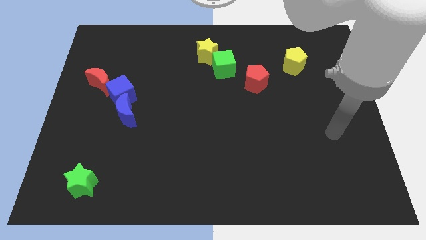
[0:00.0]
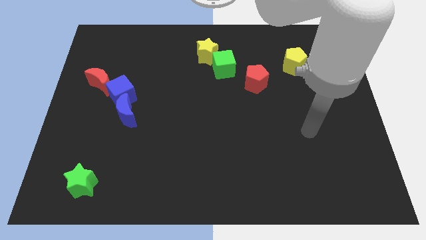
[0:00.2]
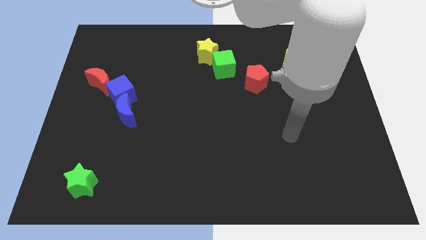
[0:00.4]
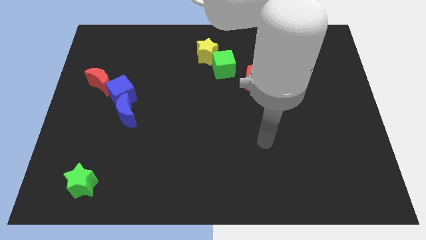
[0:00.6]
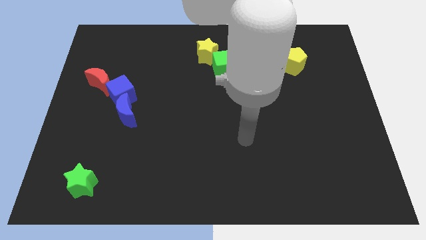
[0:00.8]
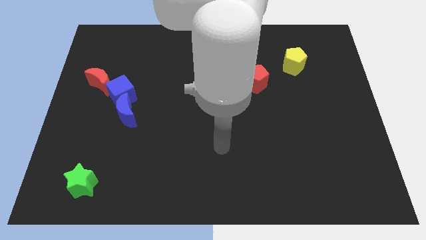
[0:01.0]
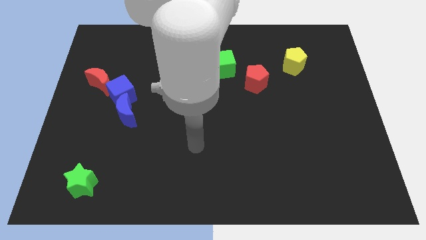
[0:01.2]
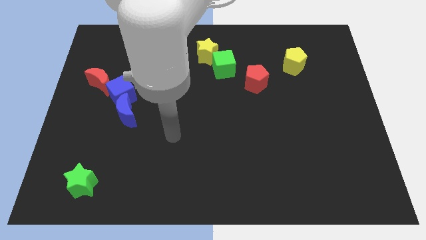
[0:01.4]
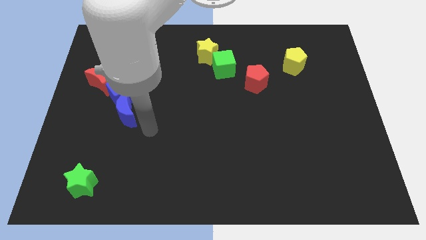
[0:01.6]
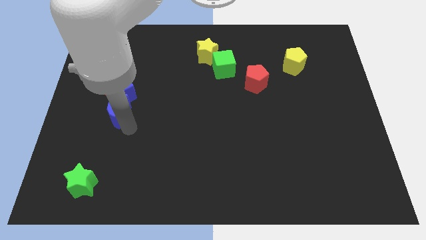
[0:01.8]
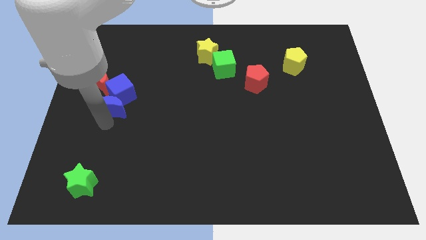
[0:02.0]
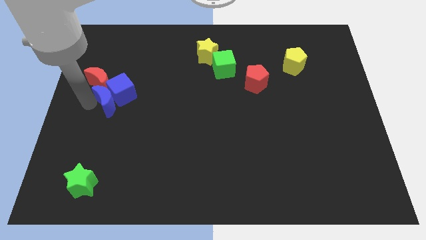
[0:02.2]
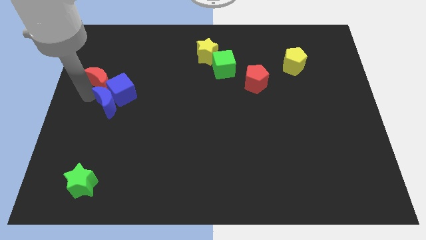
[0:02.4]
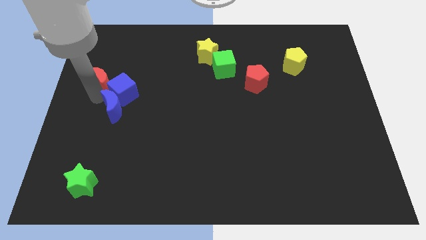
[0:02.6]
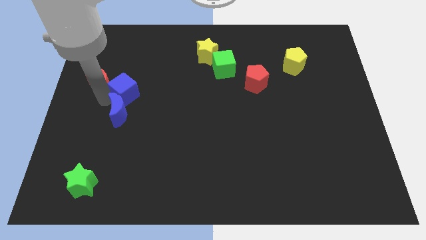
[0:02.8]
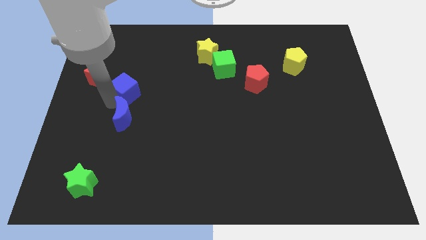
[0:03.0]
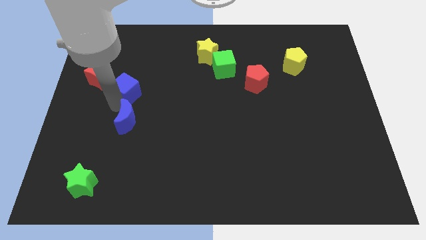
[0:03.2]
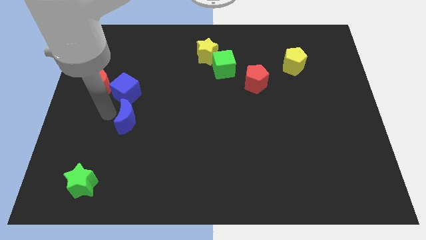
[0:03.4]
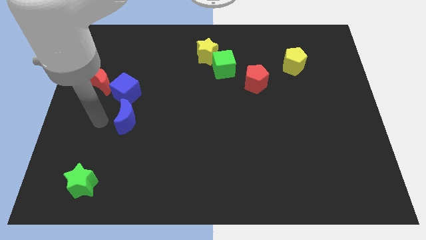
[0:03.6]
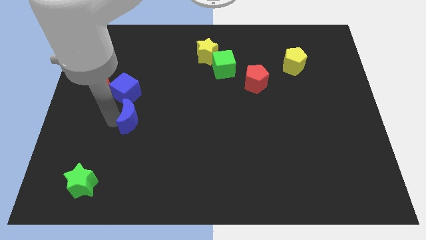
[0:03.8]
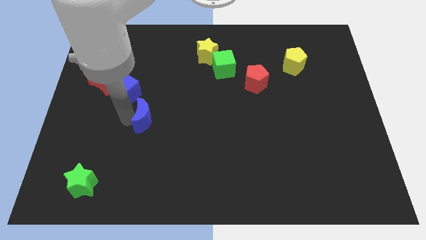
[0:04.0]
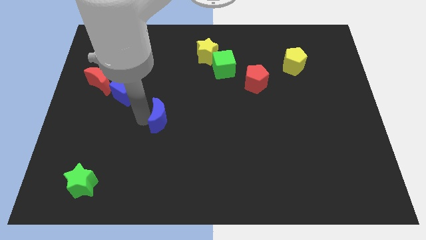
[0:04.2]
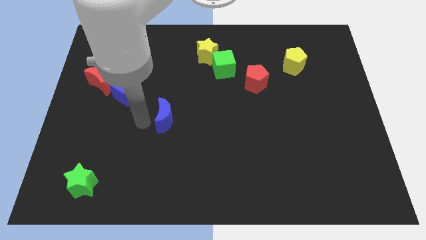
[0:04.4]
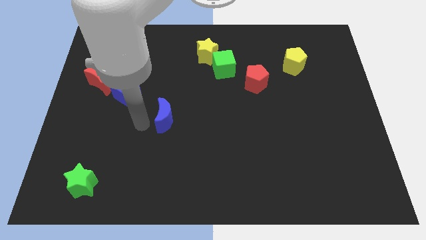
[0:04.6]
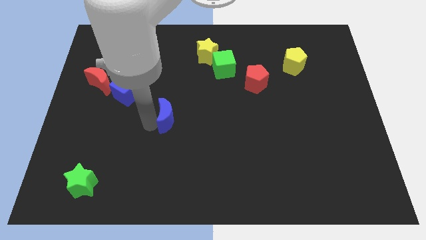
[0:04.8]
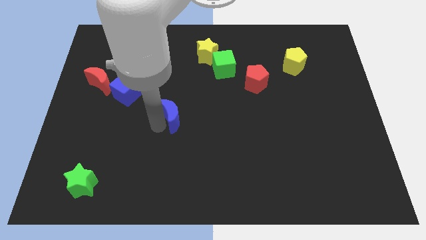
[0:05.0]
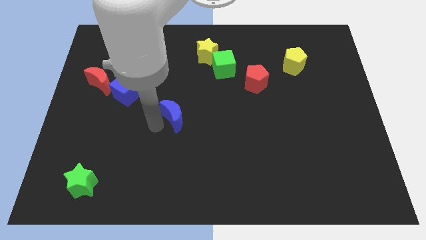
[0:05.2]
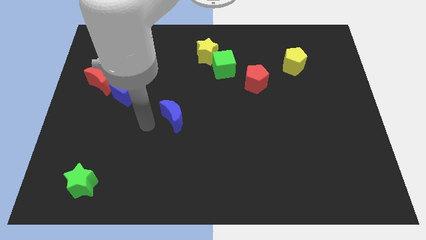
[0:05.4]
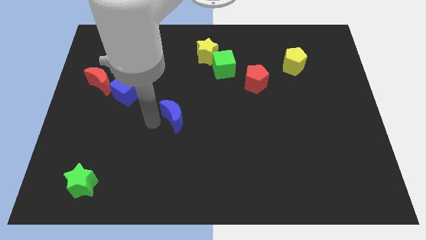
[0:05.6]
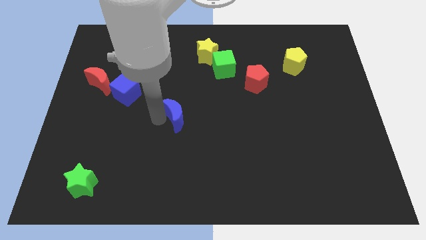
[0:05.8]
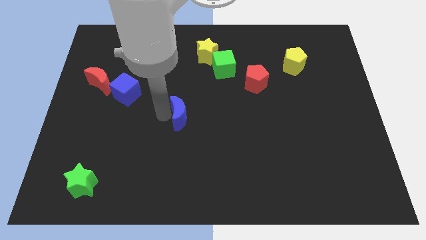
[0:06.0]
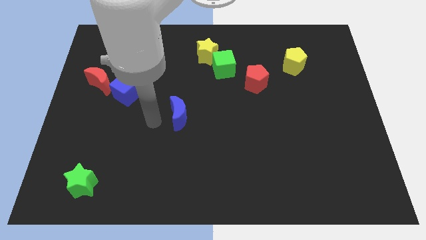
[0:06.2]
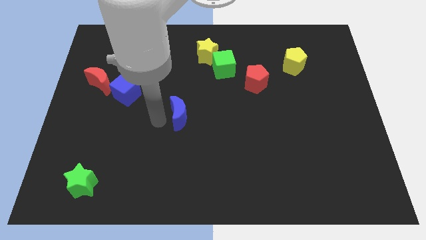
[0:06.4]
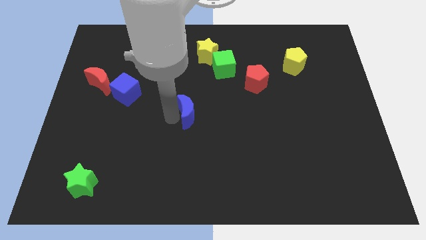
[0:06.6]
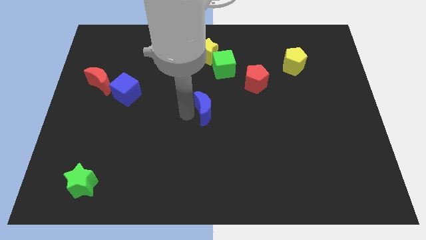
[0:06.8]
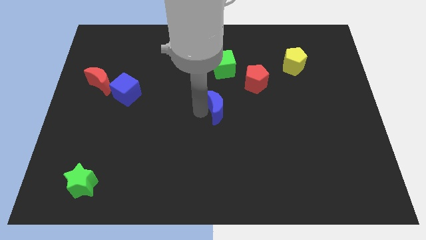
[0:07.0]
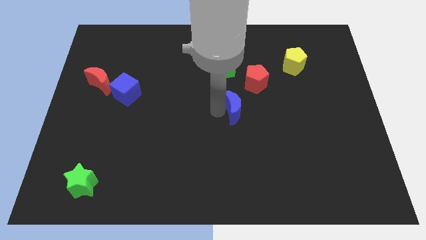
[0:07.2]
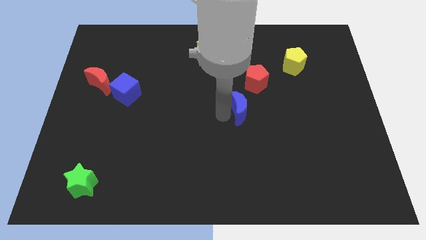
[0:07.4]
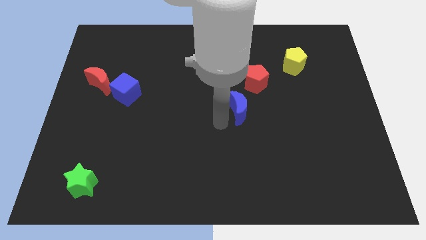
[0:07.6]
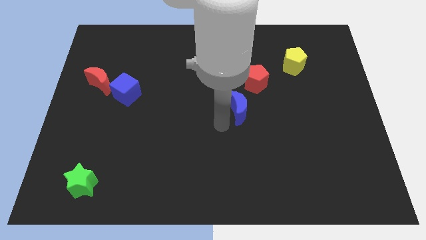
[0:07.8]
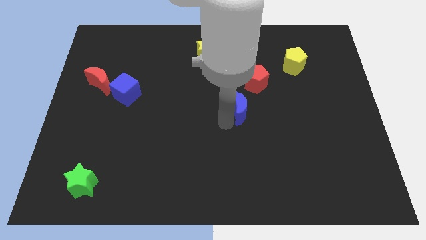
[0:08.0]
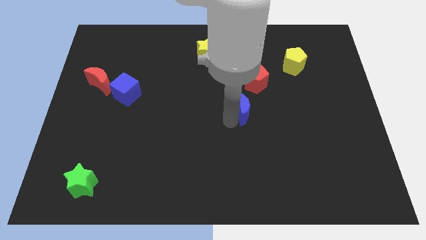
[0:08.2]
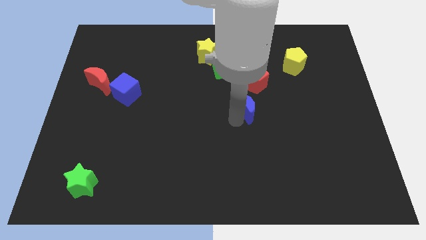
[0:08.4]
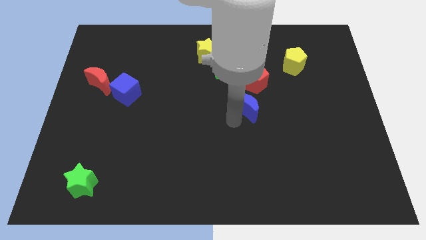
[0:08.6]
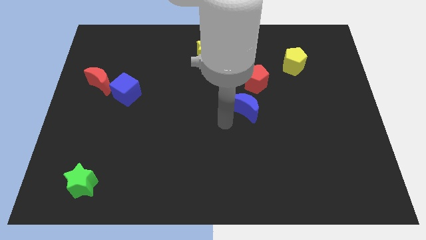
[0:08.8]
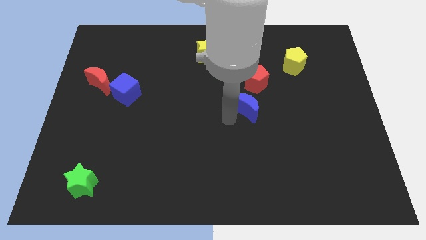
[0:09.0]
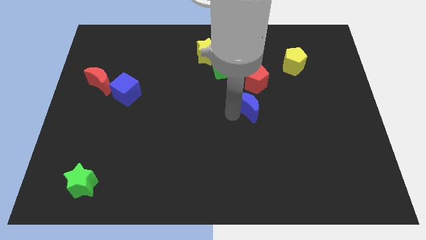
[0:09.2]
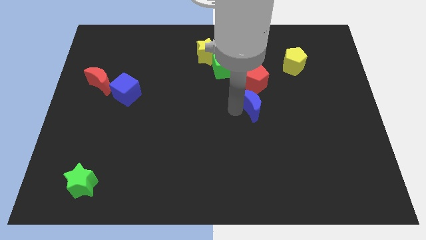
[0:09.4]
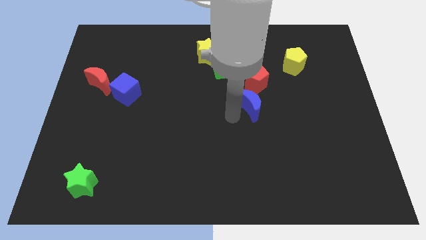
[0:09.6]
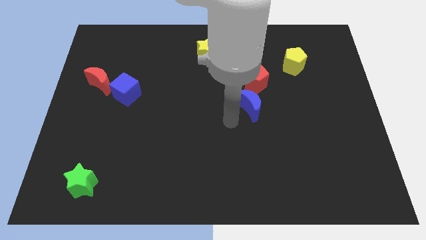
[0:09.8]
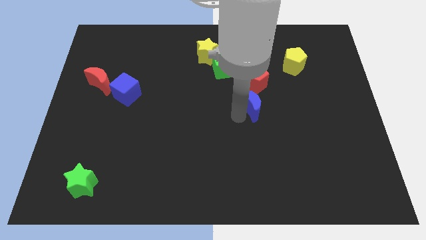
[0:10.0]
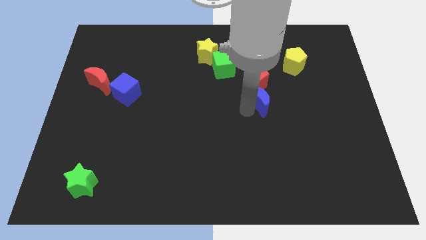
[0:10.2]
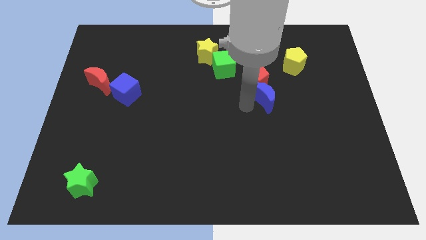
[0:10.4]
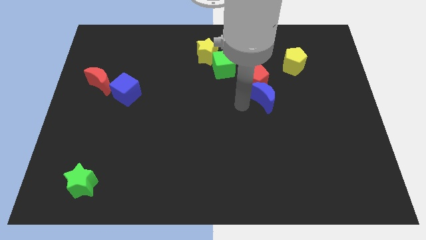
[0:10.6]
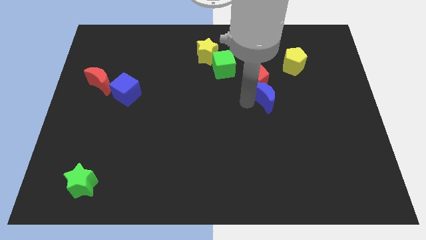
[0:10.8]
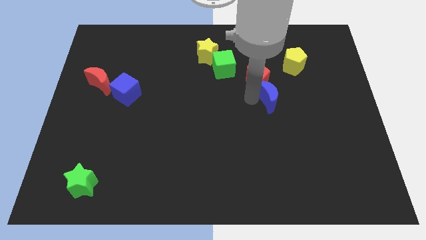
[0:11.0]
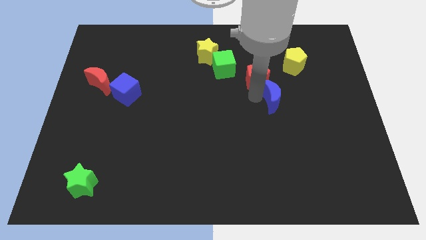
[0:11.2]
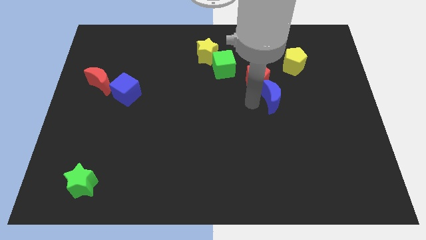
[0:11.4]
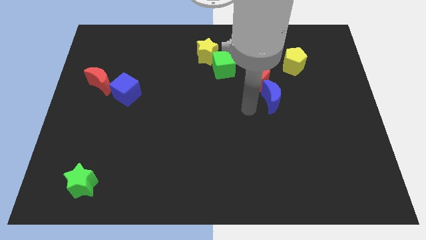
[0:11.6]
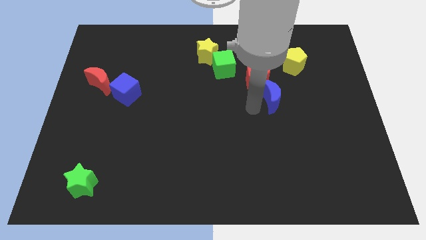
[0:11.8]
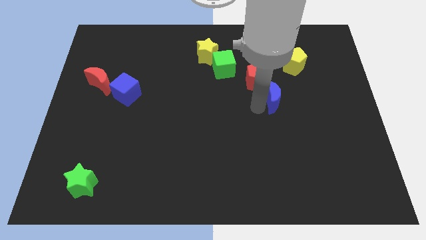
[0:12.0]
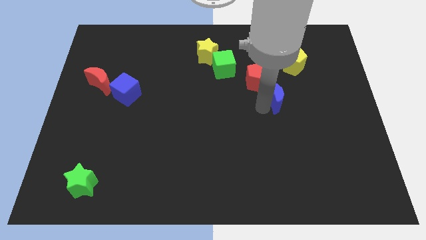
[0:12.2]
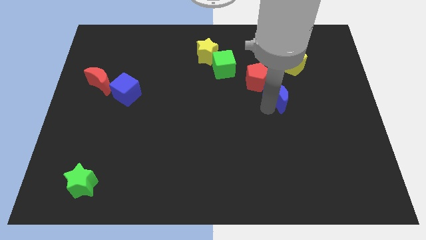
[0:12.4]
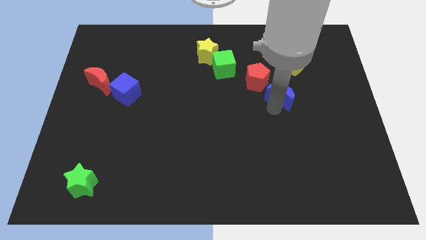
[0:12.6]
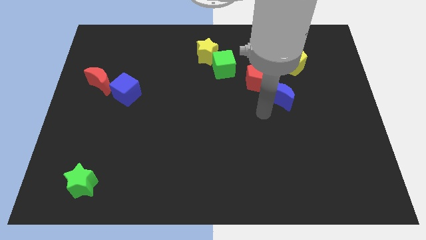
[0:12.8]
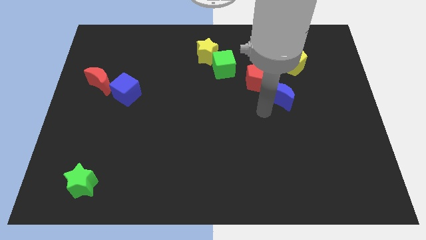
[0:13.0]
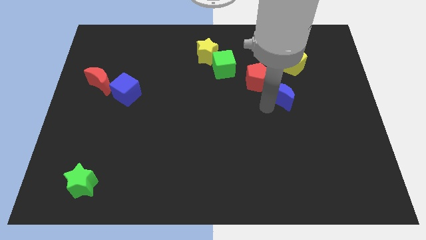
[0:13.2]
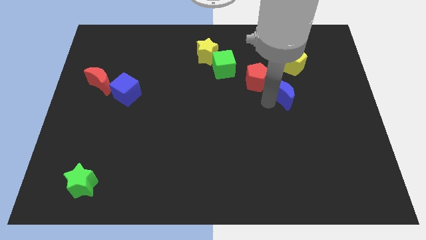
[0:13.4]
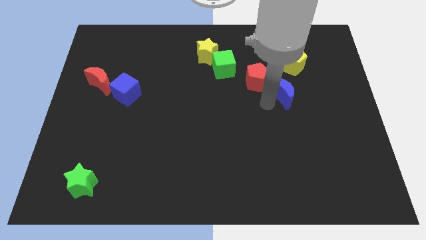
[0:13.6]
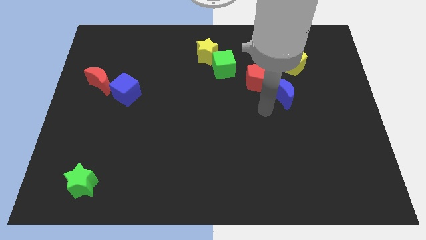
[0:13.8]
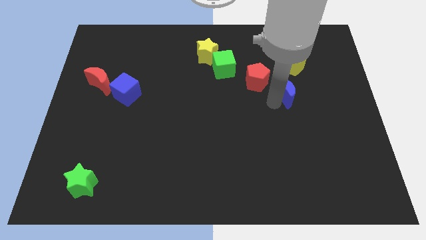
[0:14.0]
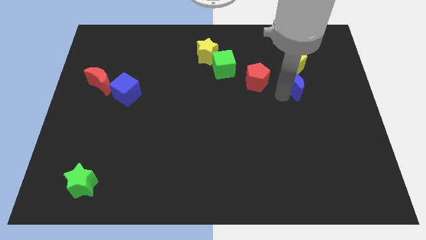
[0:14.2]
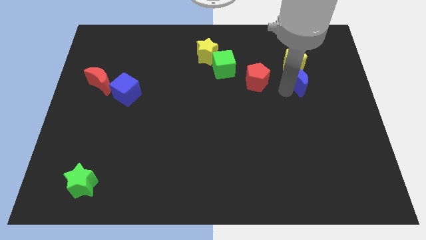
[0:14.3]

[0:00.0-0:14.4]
slide the blue moon to the bottom right side of the yellow pentagon
